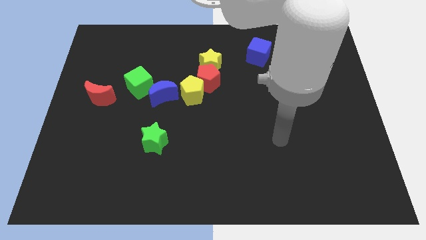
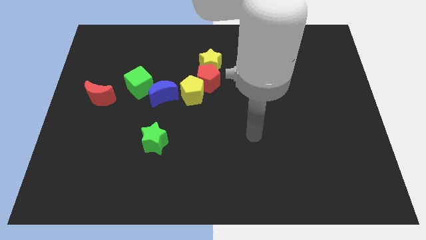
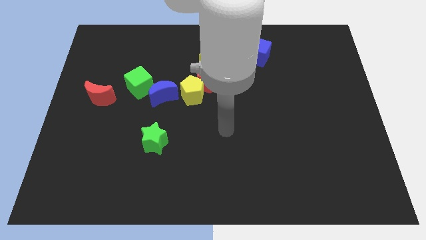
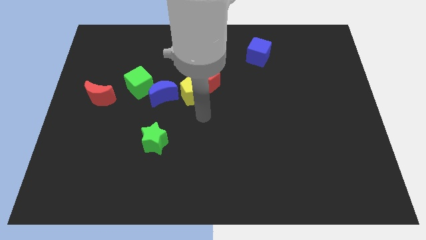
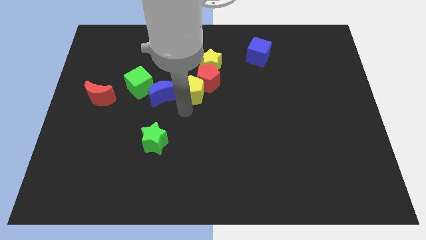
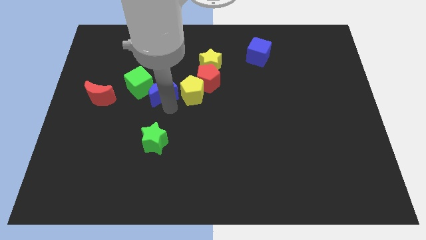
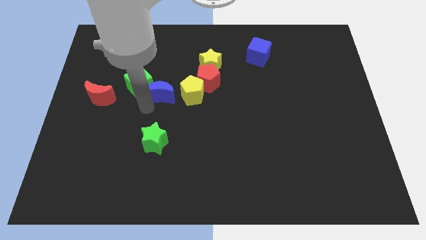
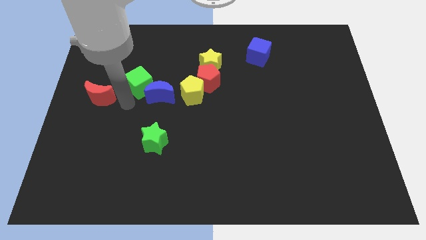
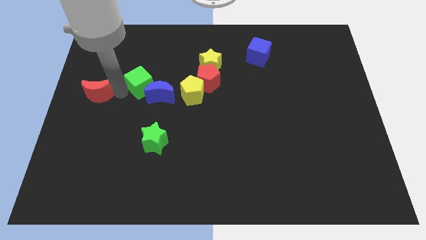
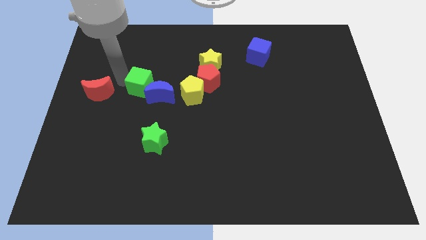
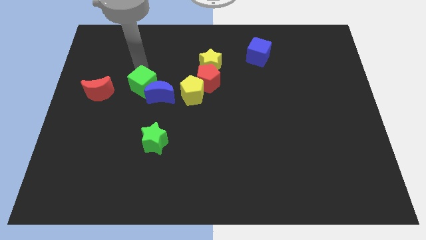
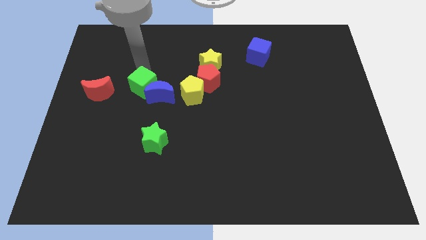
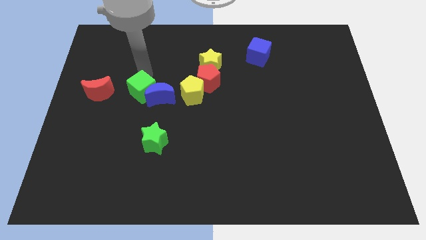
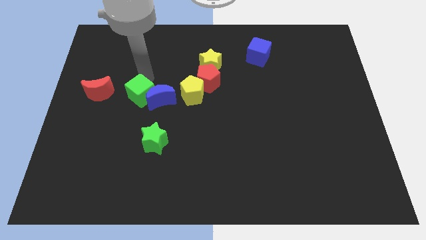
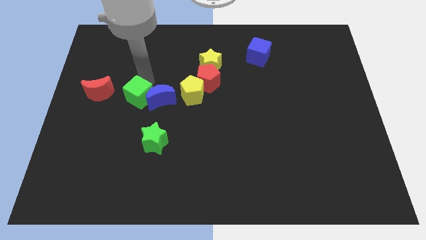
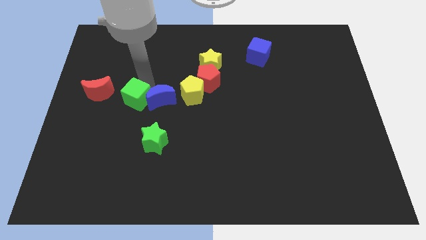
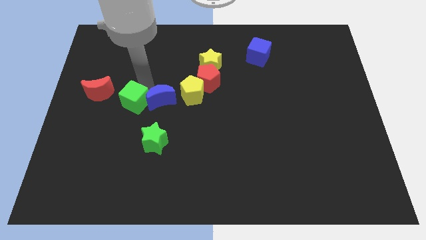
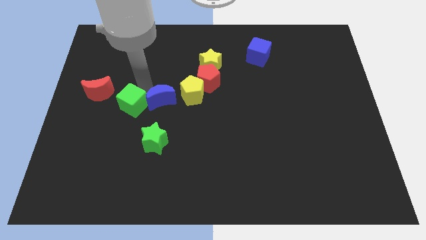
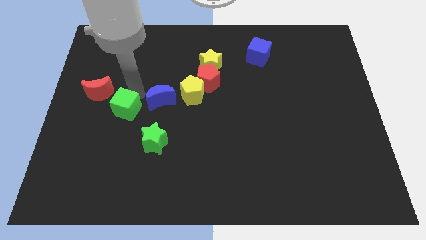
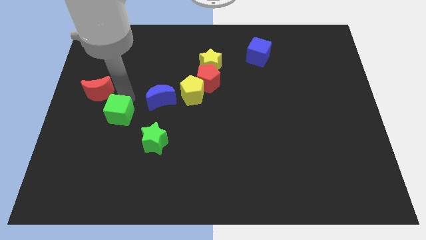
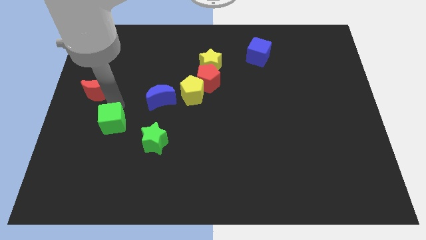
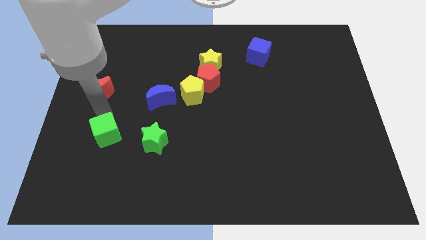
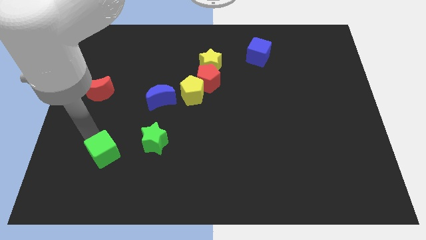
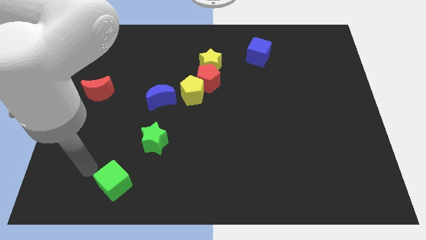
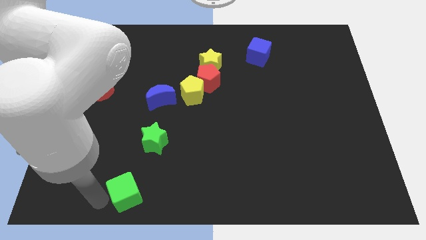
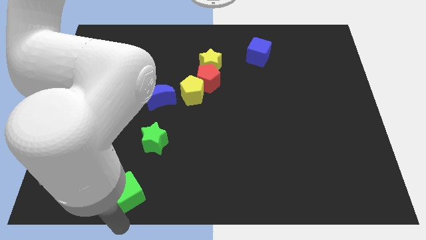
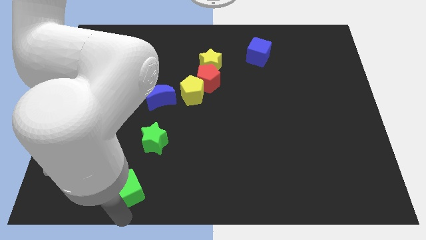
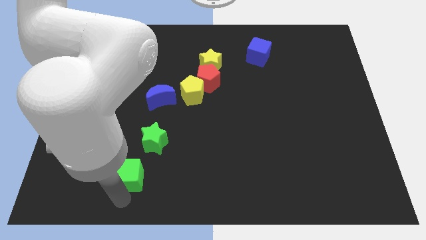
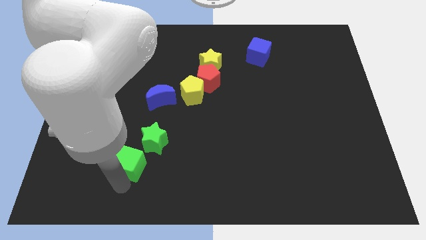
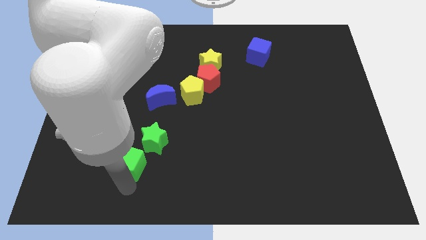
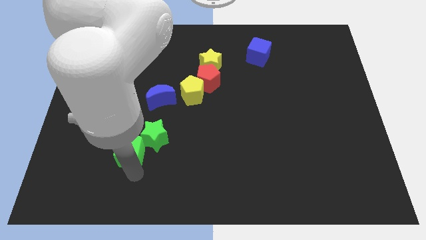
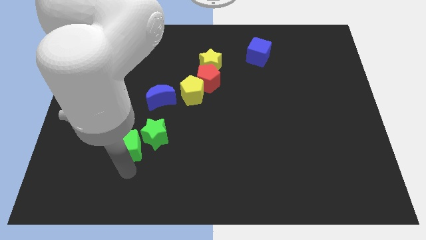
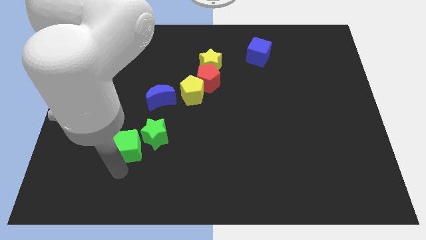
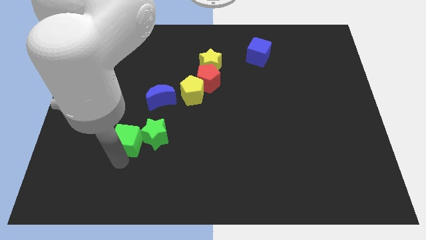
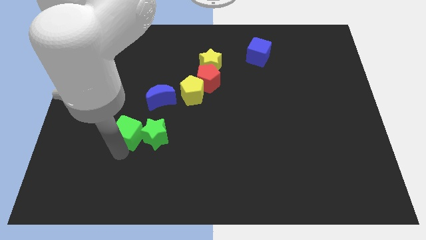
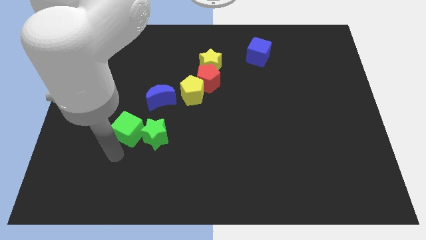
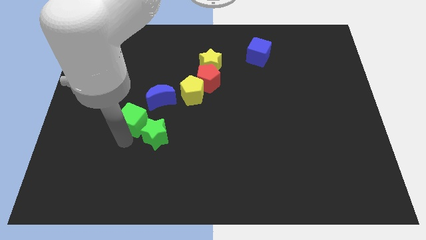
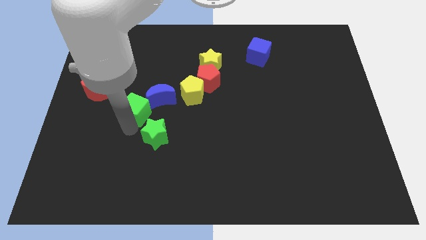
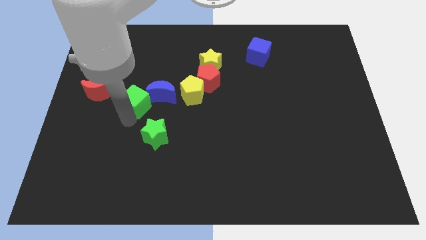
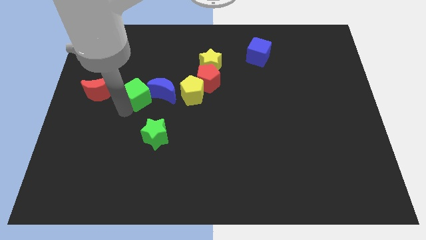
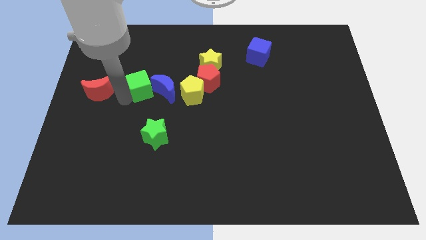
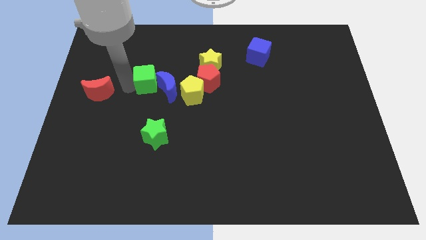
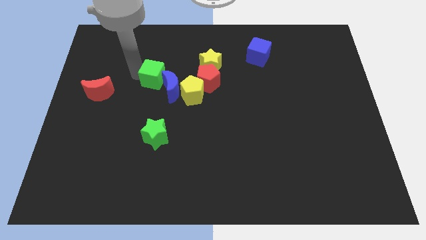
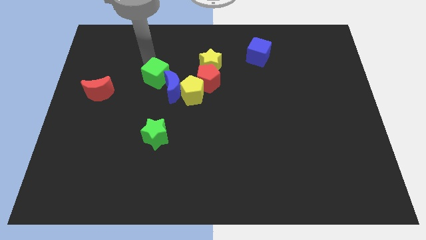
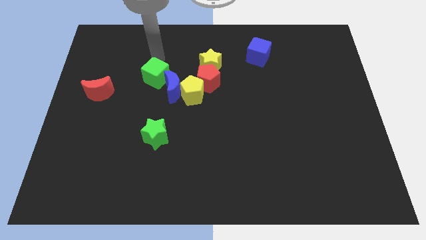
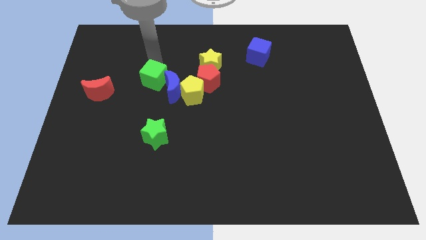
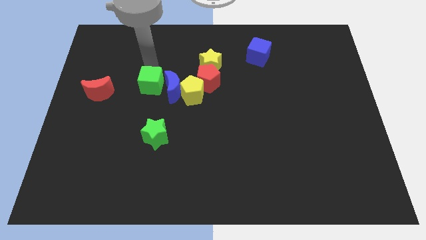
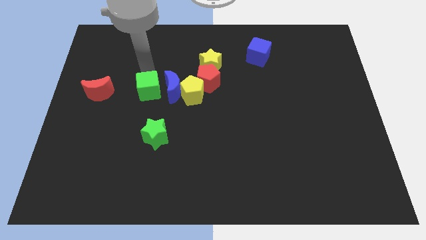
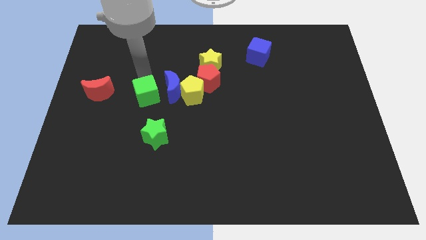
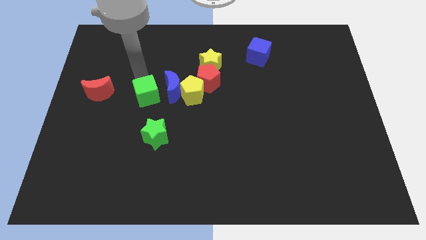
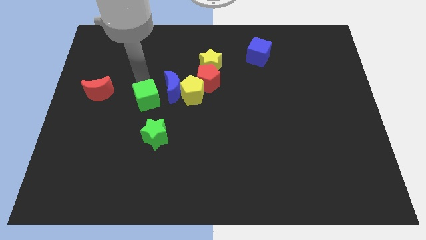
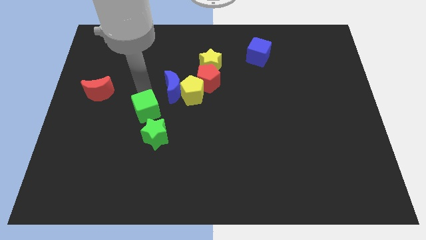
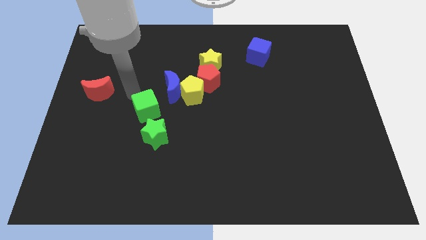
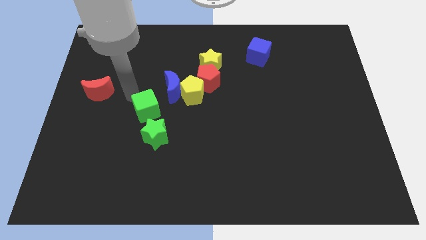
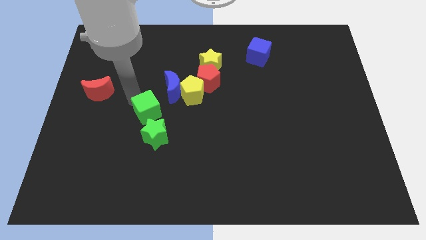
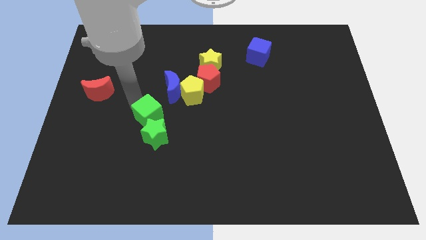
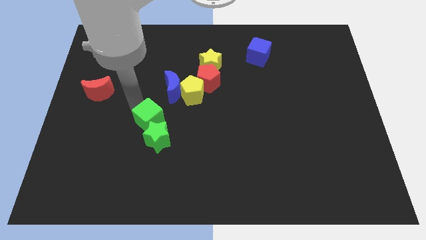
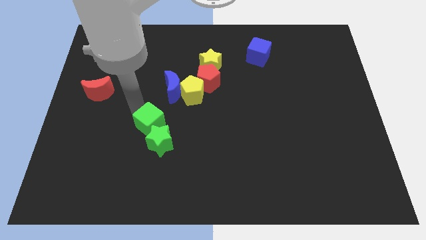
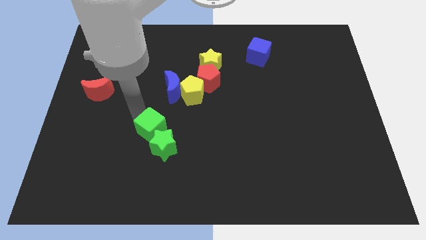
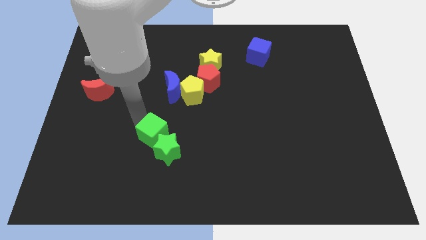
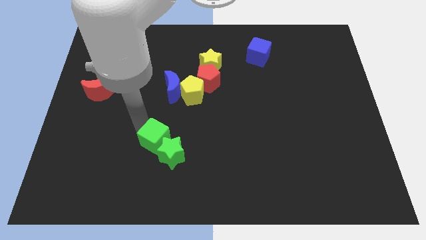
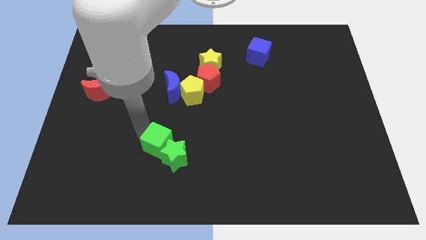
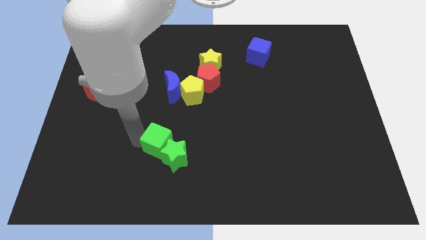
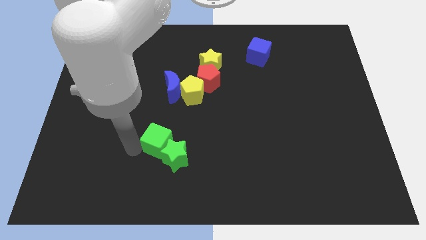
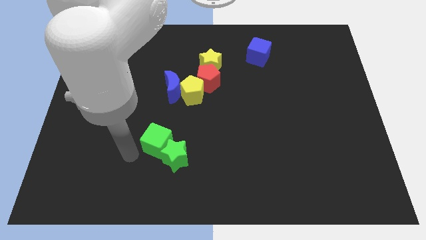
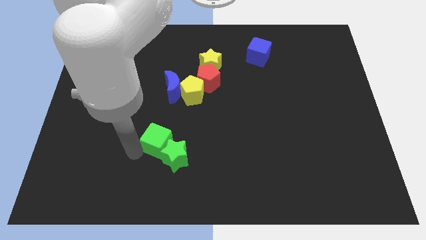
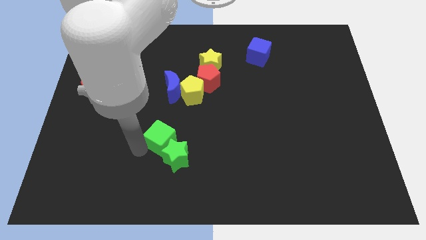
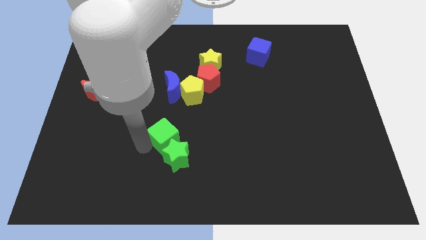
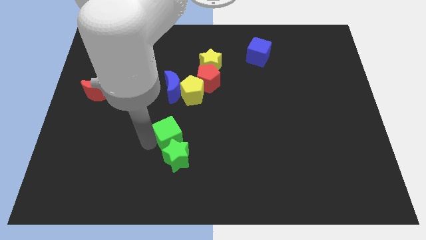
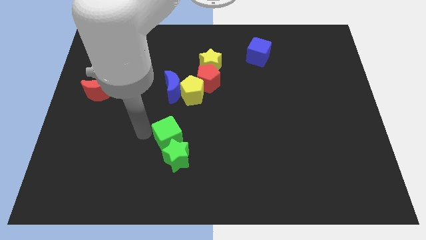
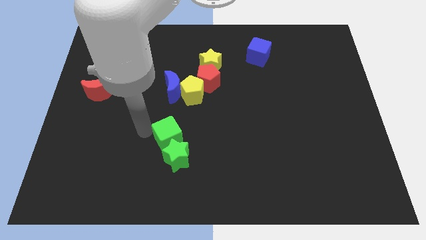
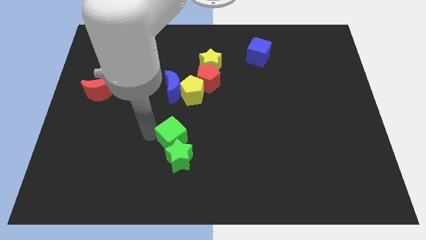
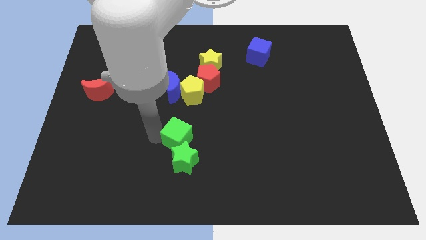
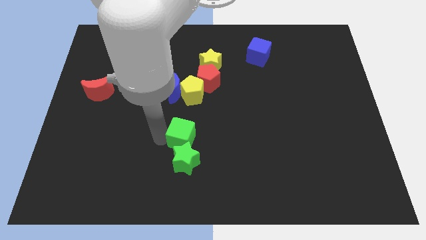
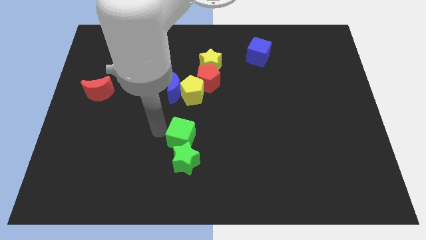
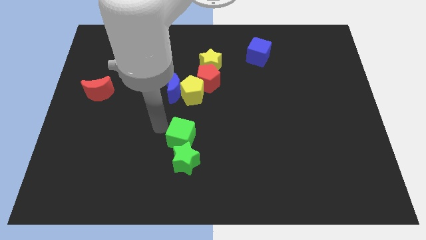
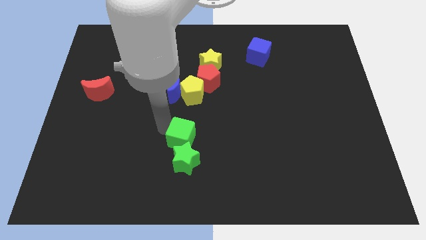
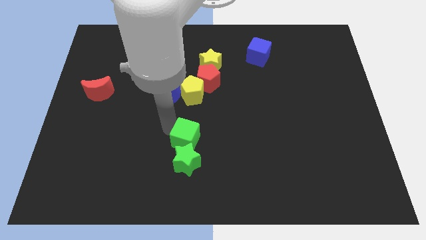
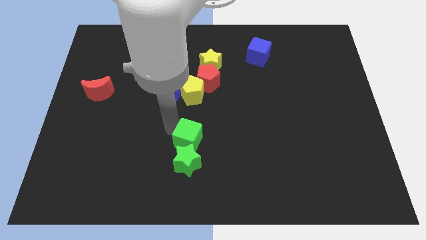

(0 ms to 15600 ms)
push the green cube down and then to the right
